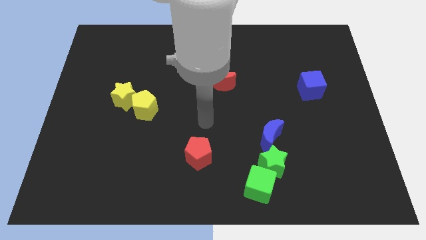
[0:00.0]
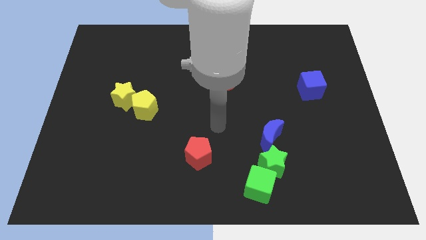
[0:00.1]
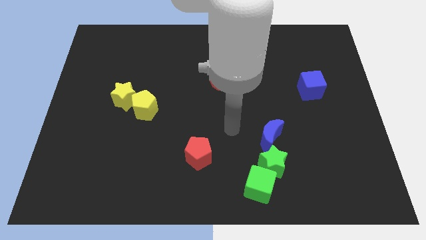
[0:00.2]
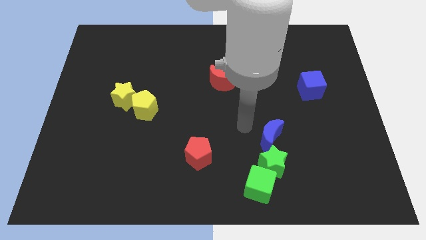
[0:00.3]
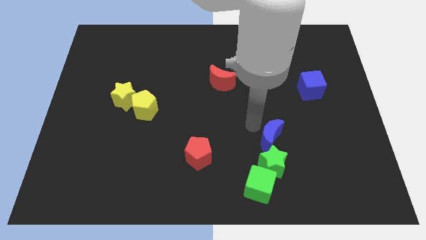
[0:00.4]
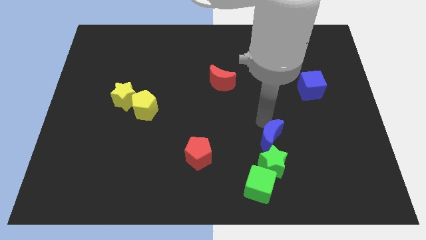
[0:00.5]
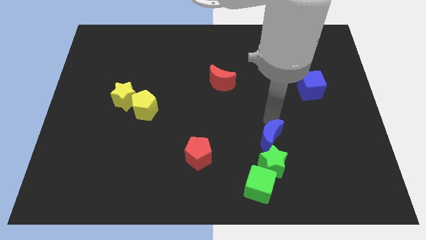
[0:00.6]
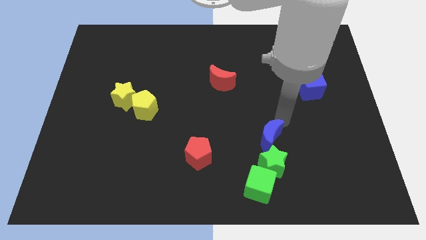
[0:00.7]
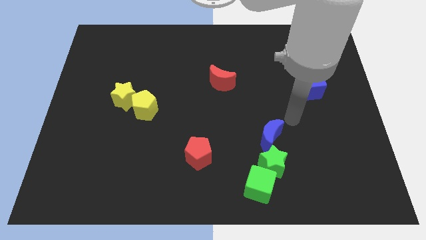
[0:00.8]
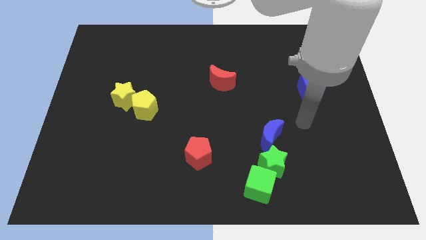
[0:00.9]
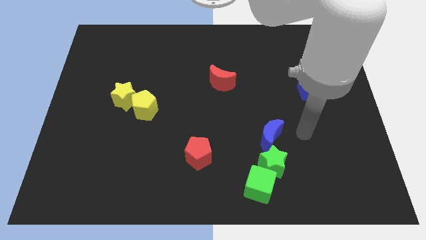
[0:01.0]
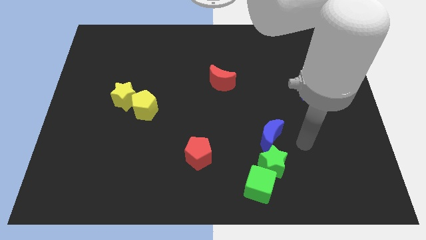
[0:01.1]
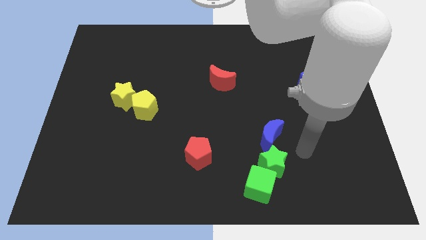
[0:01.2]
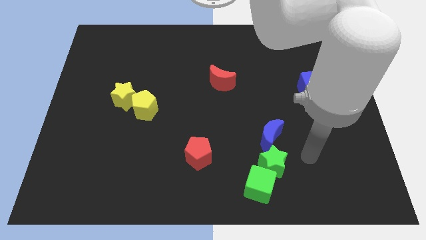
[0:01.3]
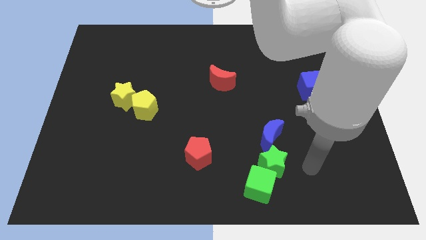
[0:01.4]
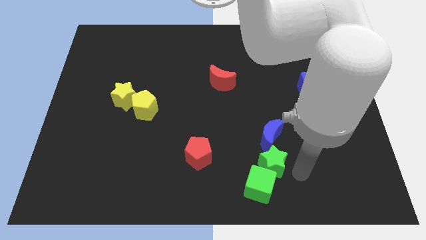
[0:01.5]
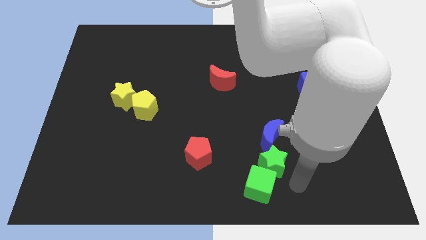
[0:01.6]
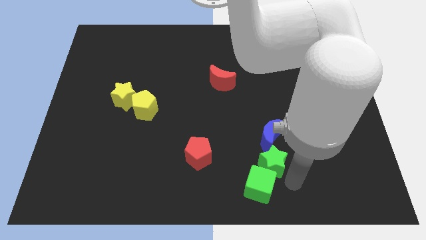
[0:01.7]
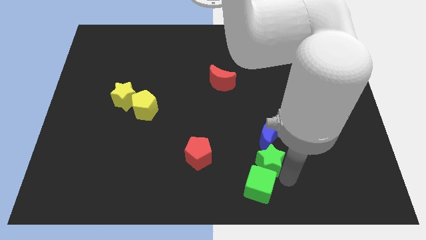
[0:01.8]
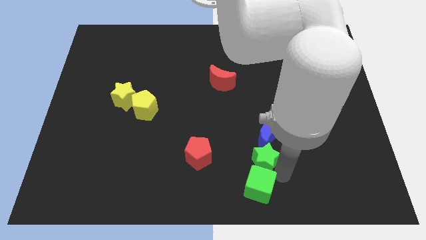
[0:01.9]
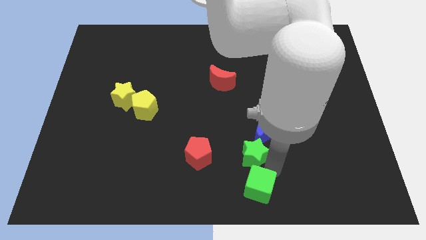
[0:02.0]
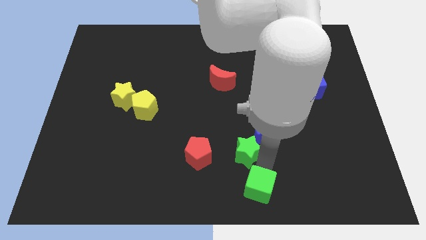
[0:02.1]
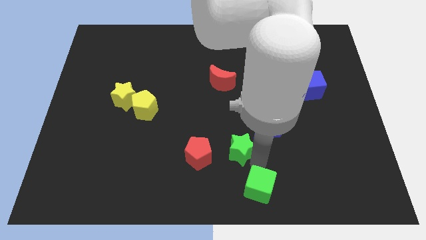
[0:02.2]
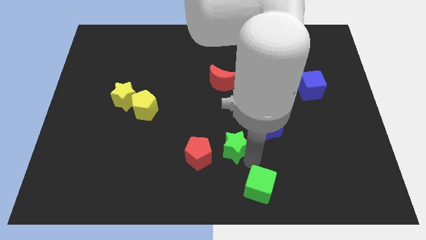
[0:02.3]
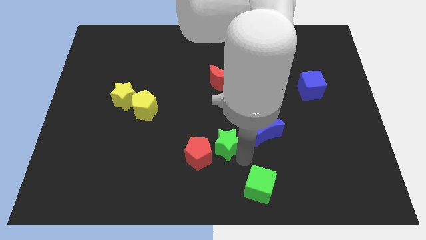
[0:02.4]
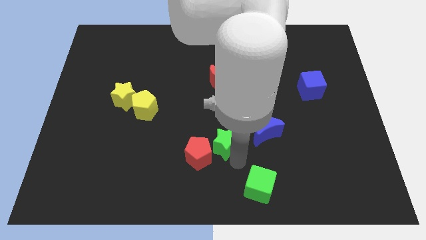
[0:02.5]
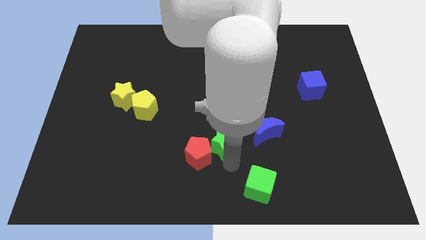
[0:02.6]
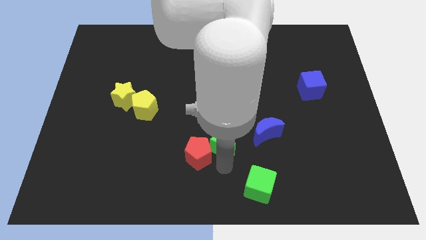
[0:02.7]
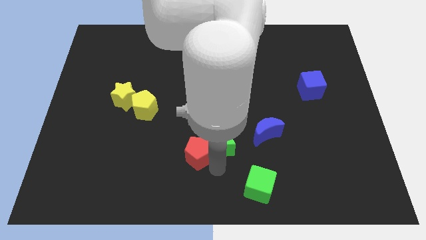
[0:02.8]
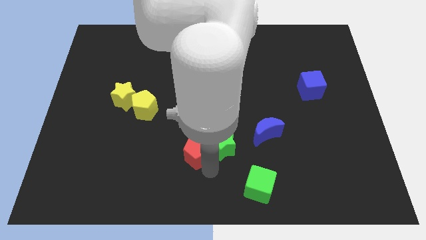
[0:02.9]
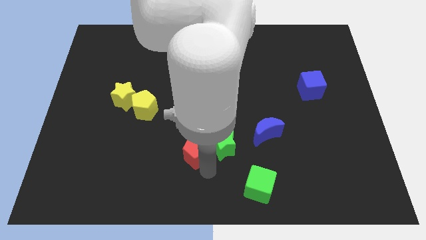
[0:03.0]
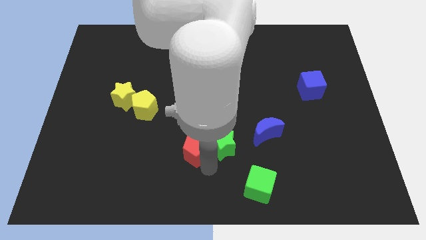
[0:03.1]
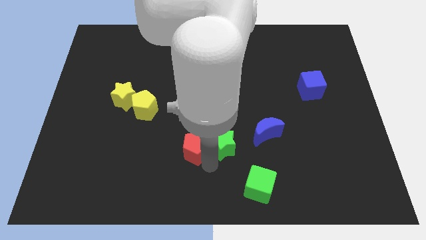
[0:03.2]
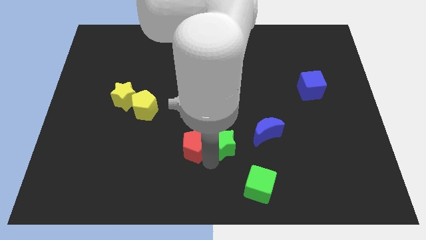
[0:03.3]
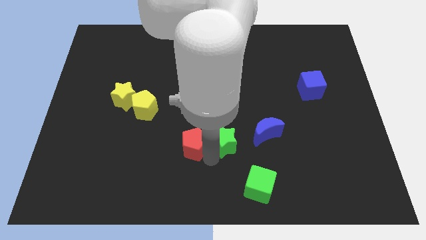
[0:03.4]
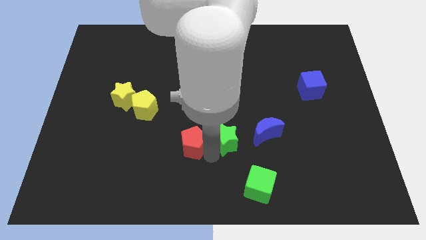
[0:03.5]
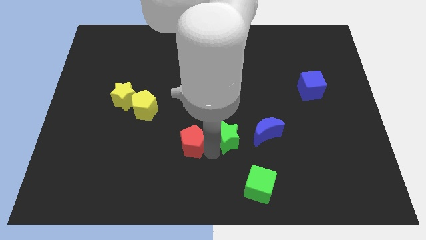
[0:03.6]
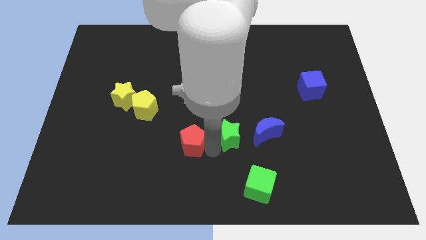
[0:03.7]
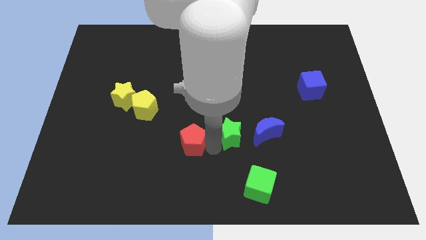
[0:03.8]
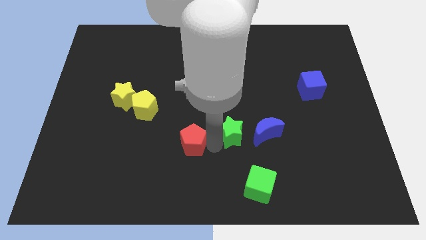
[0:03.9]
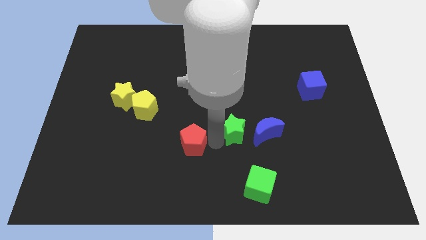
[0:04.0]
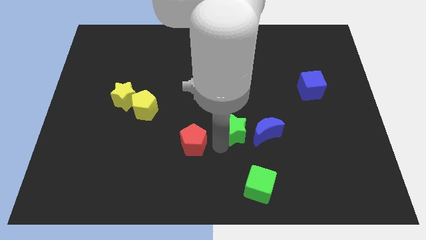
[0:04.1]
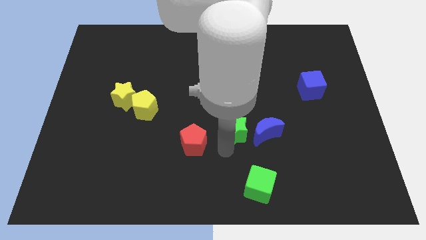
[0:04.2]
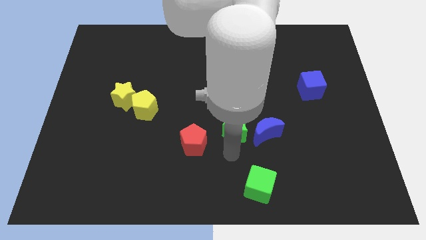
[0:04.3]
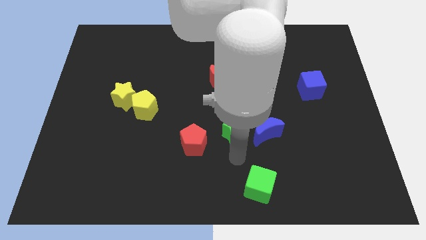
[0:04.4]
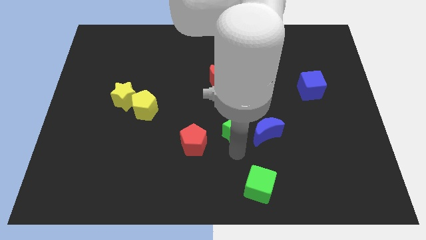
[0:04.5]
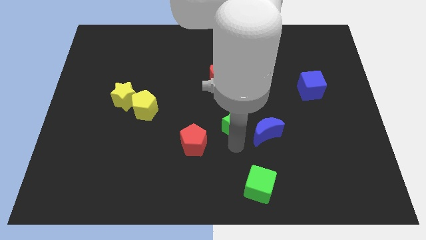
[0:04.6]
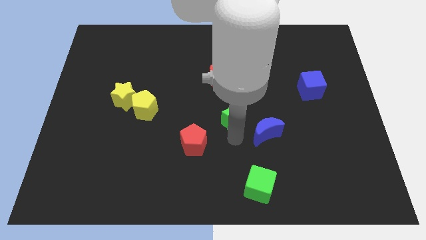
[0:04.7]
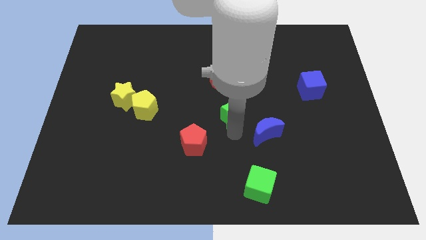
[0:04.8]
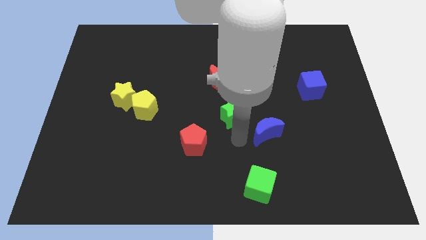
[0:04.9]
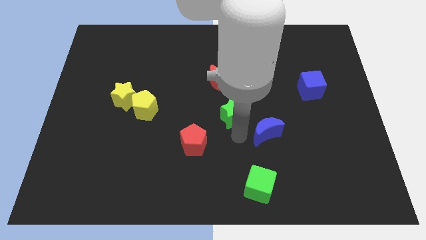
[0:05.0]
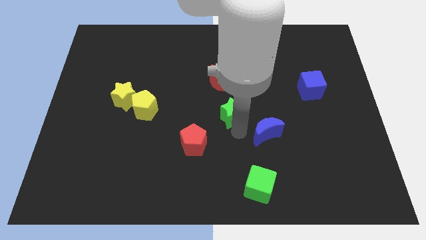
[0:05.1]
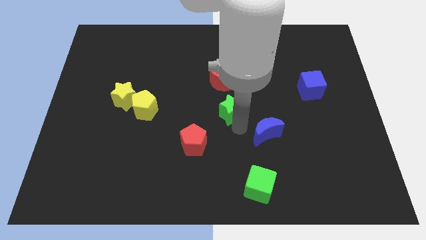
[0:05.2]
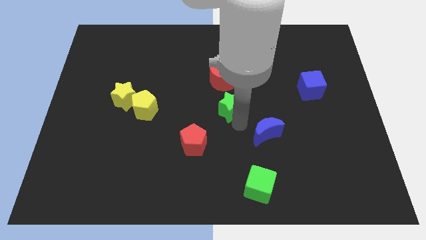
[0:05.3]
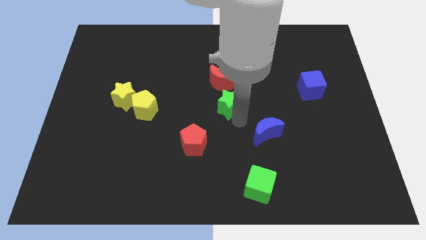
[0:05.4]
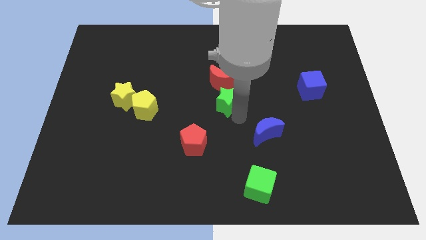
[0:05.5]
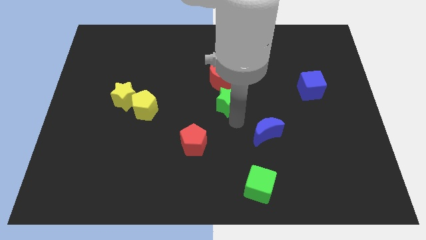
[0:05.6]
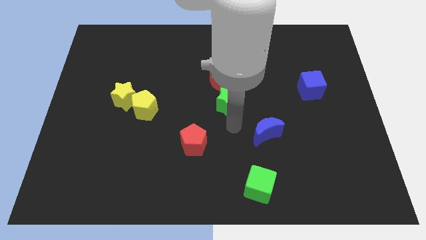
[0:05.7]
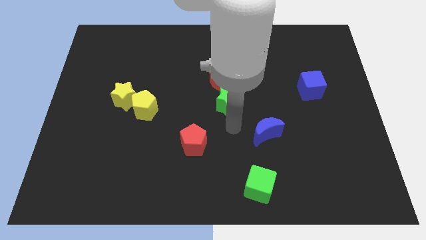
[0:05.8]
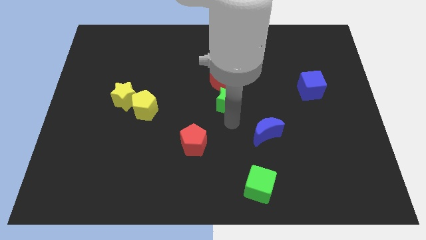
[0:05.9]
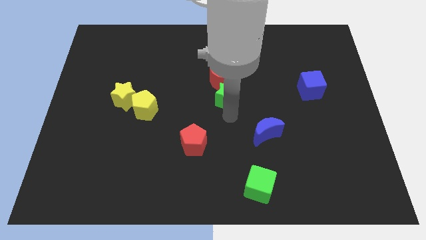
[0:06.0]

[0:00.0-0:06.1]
push the green star to the red moon
